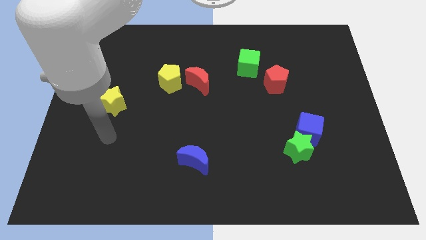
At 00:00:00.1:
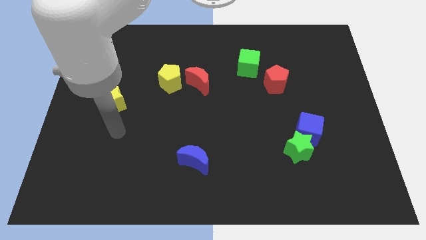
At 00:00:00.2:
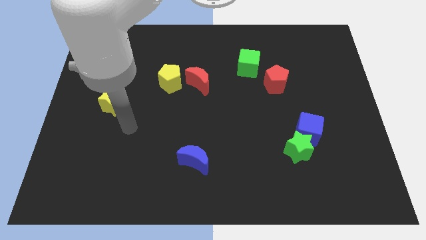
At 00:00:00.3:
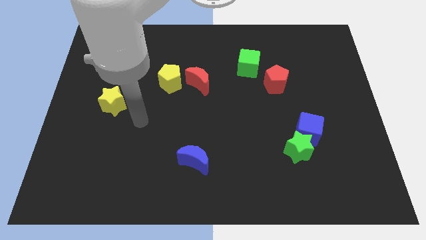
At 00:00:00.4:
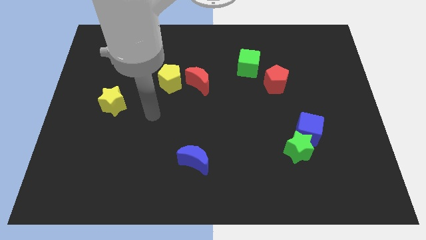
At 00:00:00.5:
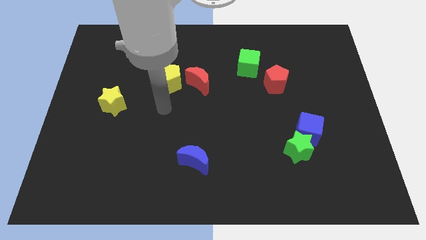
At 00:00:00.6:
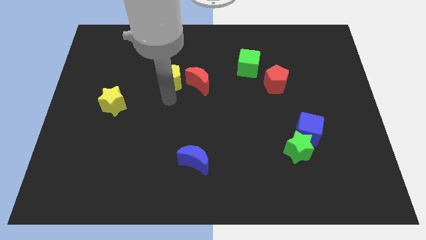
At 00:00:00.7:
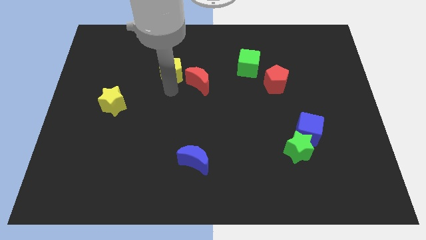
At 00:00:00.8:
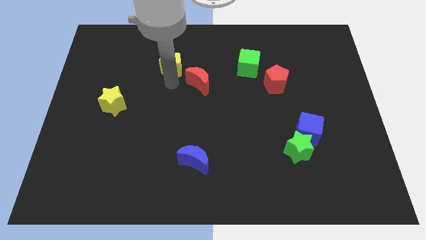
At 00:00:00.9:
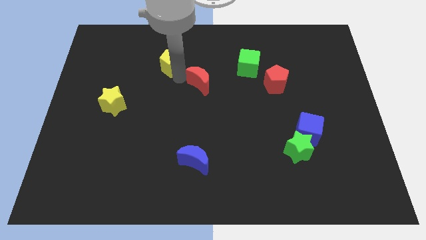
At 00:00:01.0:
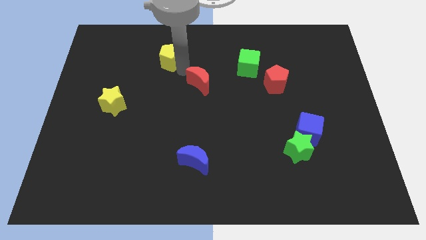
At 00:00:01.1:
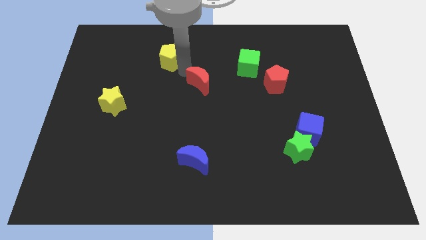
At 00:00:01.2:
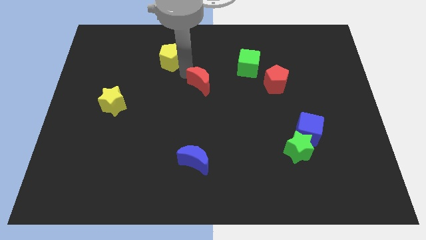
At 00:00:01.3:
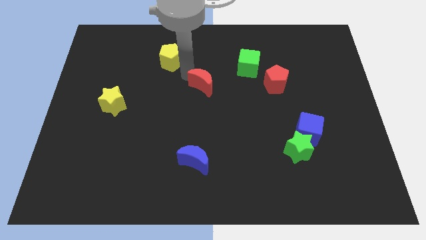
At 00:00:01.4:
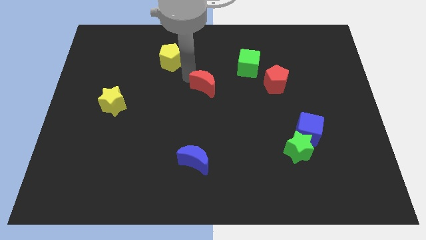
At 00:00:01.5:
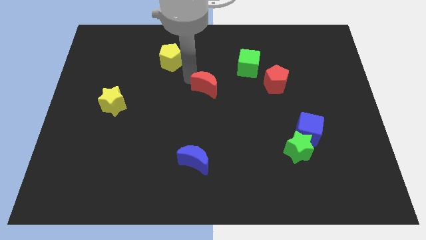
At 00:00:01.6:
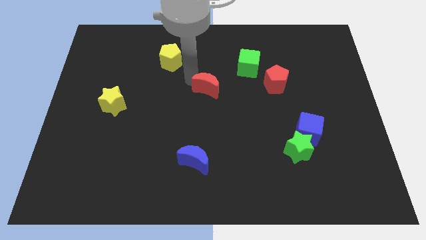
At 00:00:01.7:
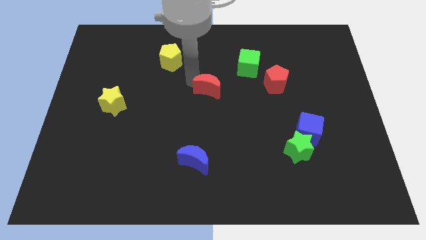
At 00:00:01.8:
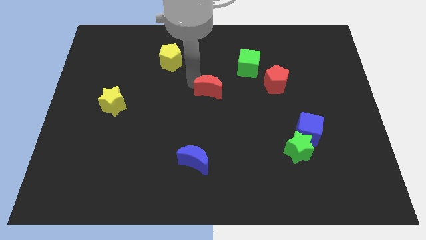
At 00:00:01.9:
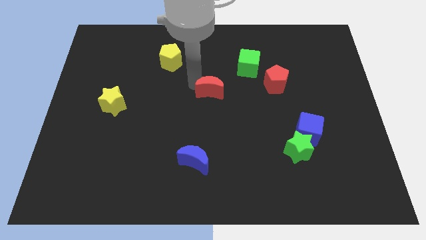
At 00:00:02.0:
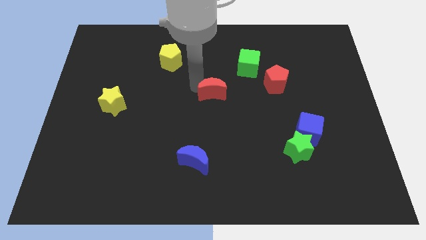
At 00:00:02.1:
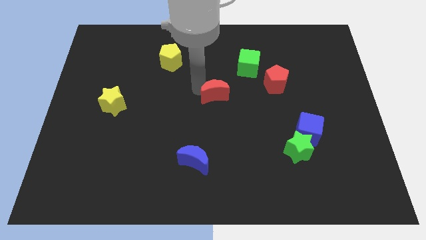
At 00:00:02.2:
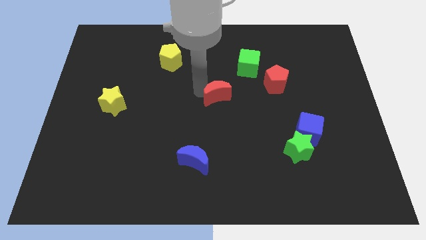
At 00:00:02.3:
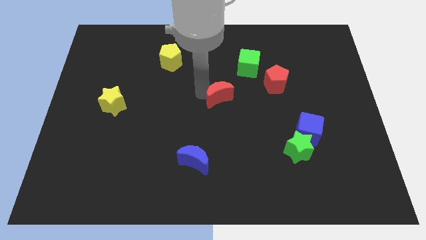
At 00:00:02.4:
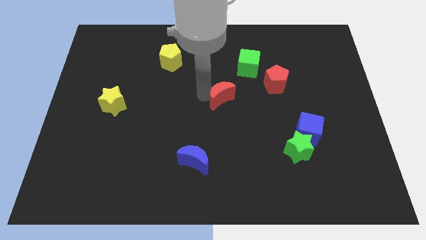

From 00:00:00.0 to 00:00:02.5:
push the red moon downwards and right a little bit

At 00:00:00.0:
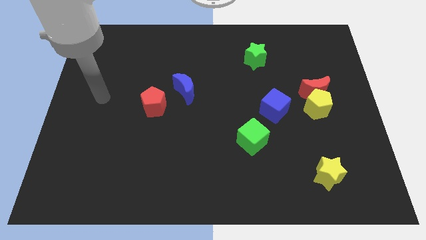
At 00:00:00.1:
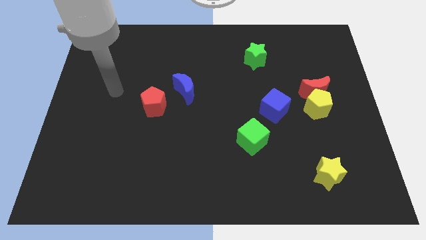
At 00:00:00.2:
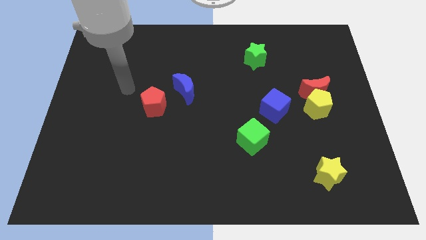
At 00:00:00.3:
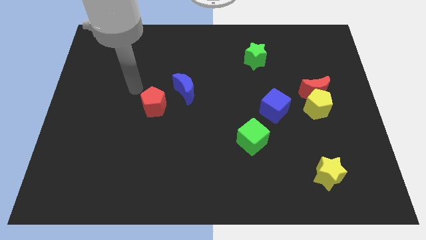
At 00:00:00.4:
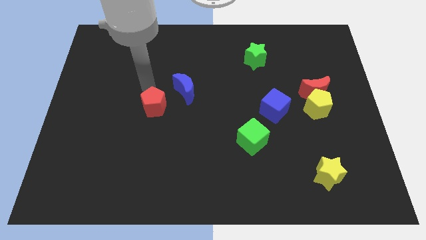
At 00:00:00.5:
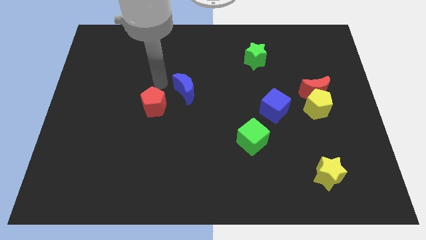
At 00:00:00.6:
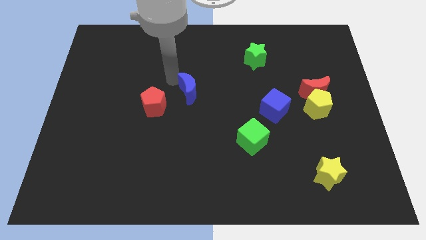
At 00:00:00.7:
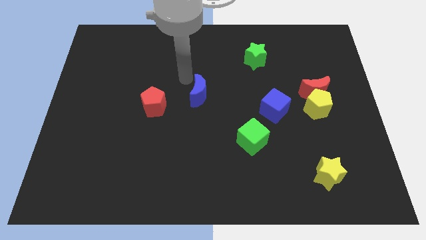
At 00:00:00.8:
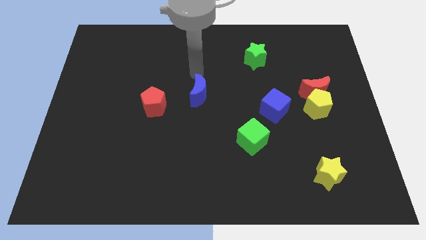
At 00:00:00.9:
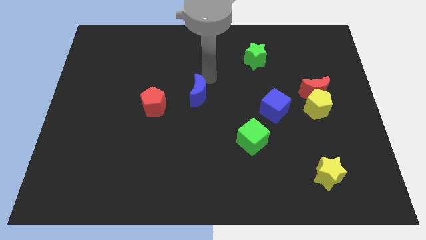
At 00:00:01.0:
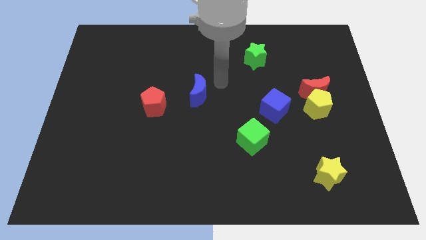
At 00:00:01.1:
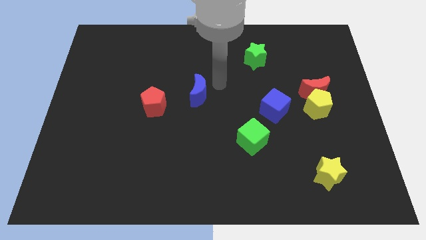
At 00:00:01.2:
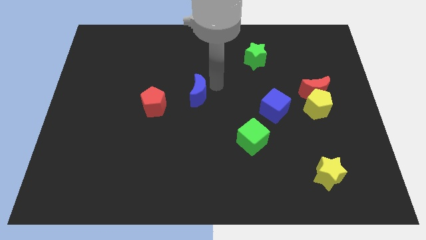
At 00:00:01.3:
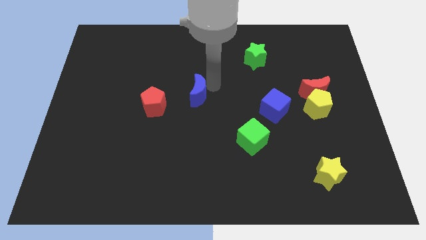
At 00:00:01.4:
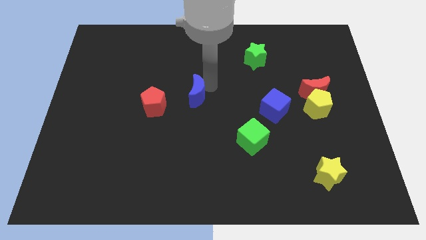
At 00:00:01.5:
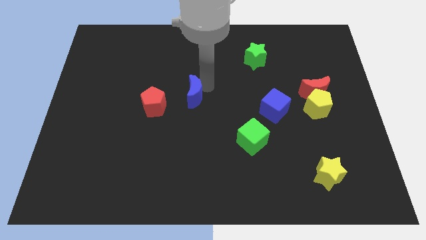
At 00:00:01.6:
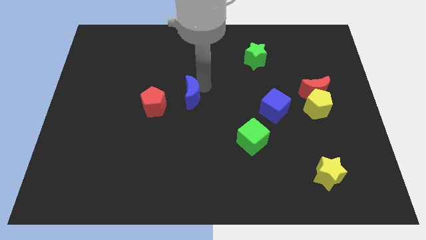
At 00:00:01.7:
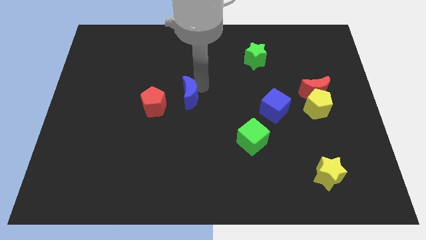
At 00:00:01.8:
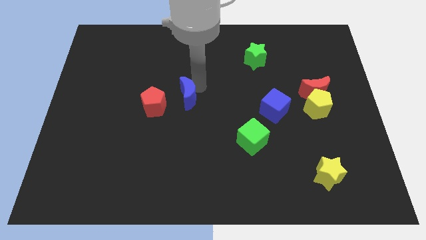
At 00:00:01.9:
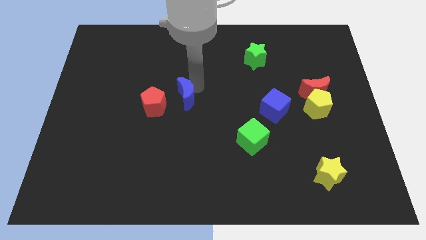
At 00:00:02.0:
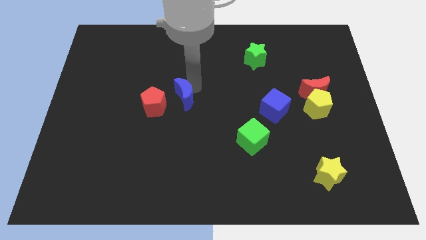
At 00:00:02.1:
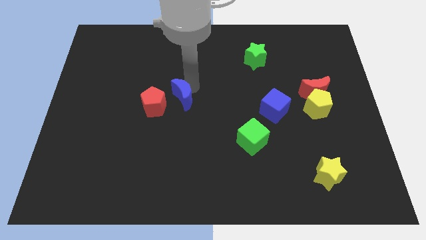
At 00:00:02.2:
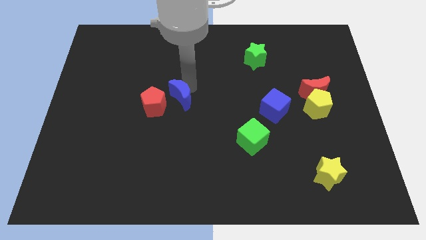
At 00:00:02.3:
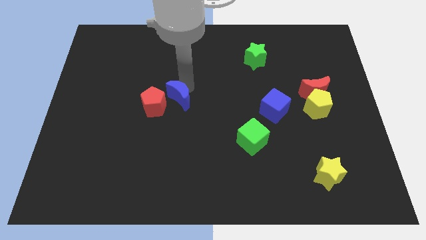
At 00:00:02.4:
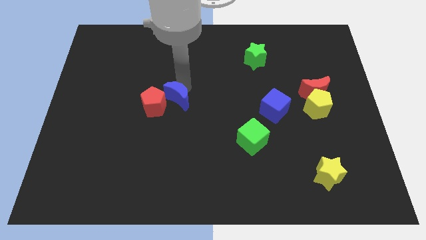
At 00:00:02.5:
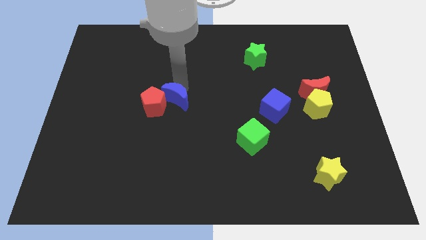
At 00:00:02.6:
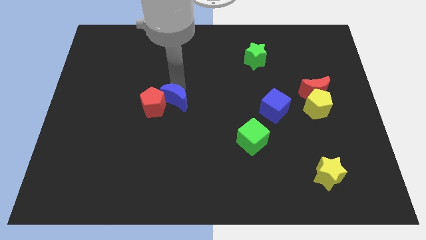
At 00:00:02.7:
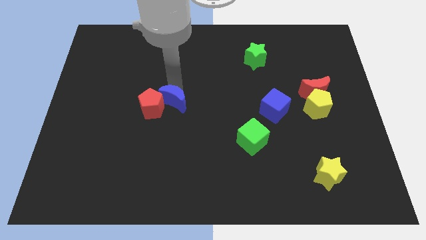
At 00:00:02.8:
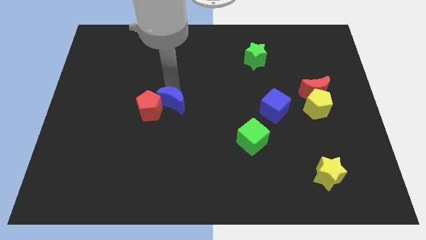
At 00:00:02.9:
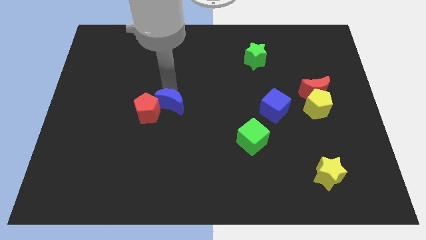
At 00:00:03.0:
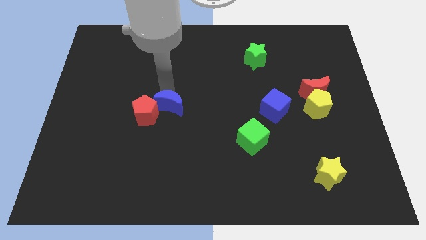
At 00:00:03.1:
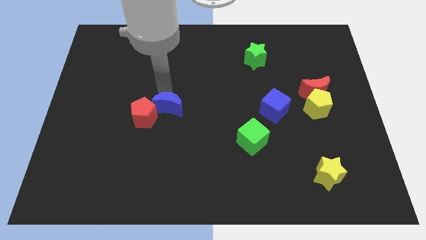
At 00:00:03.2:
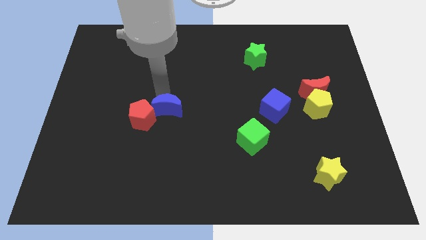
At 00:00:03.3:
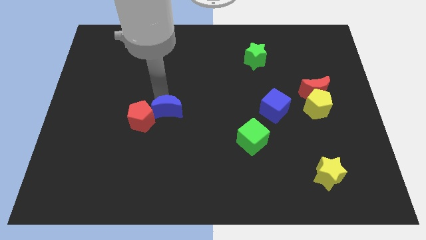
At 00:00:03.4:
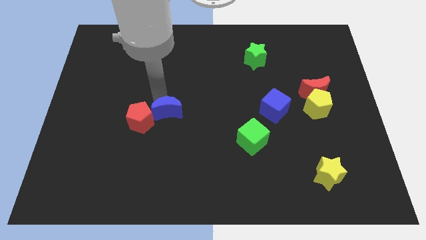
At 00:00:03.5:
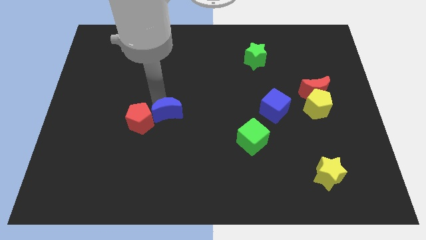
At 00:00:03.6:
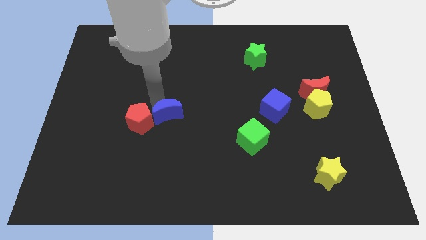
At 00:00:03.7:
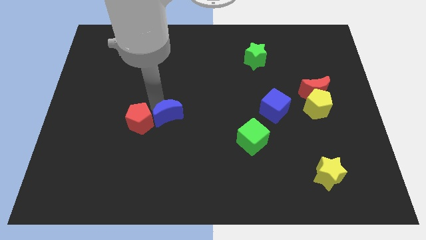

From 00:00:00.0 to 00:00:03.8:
slide the blue moon somewhat downwards

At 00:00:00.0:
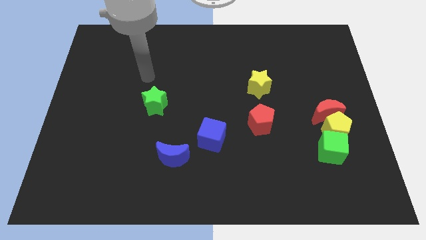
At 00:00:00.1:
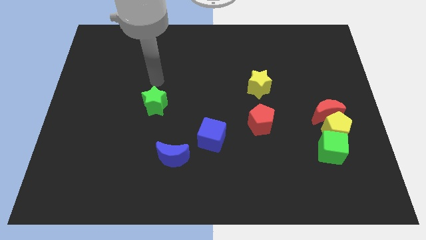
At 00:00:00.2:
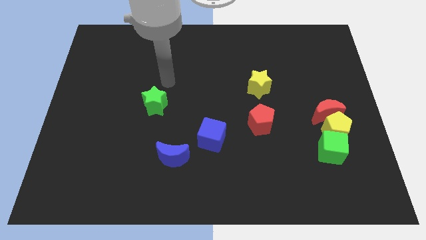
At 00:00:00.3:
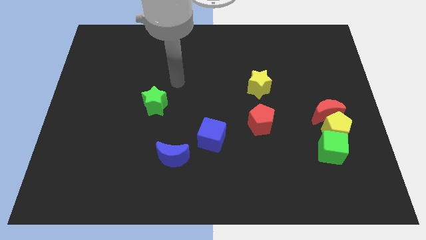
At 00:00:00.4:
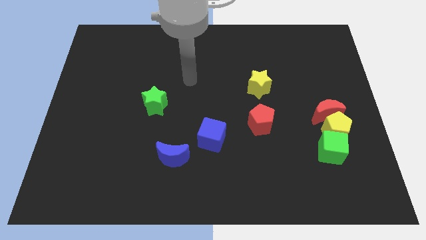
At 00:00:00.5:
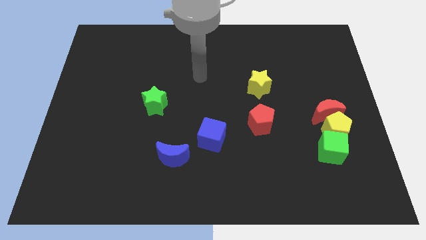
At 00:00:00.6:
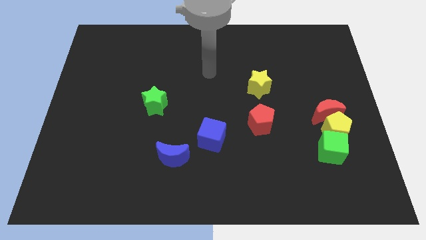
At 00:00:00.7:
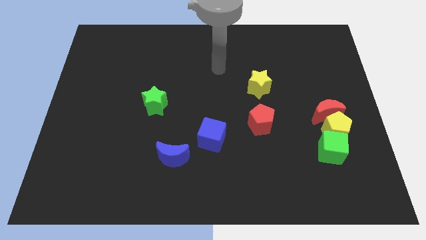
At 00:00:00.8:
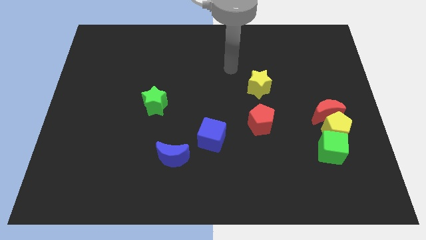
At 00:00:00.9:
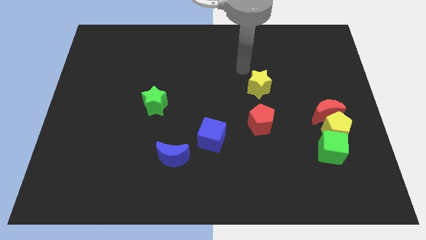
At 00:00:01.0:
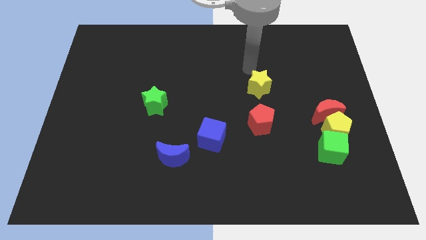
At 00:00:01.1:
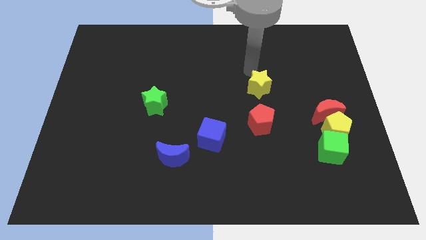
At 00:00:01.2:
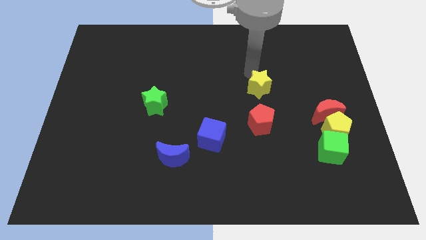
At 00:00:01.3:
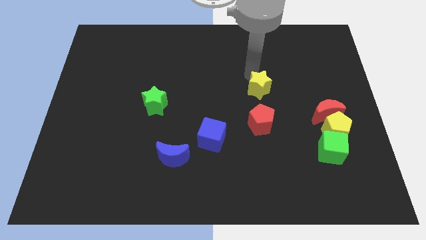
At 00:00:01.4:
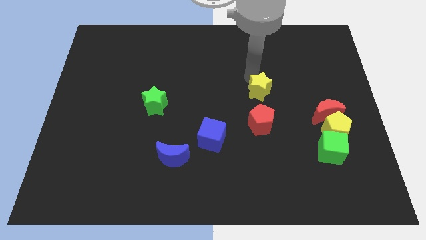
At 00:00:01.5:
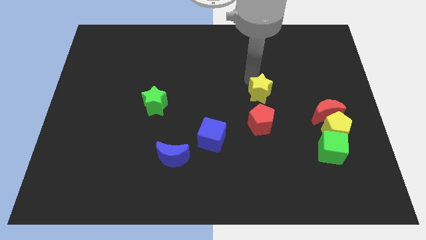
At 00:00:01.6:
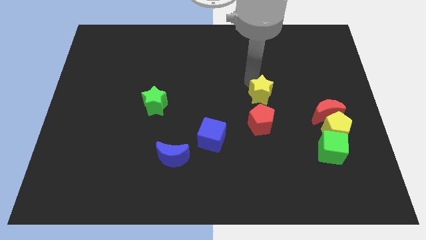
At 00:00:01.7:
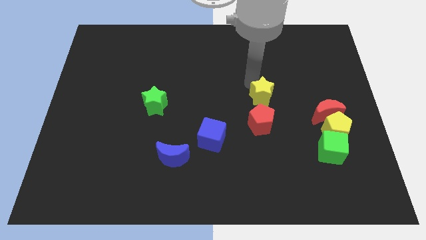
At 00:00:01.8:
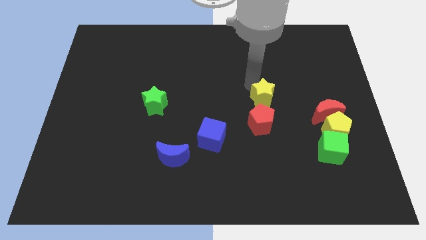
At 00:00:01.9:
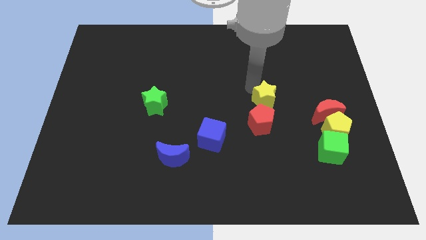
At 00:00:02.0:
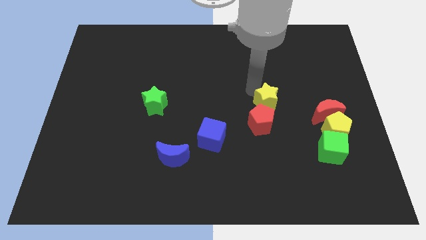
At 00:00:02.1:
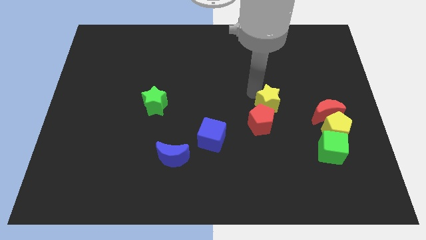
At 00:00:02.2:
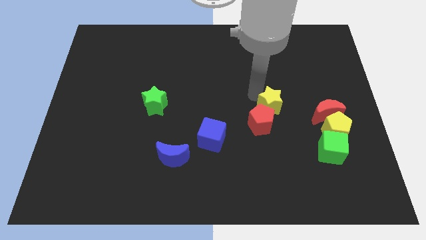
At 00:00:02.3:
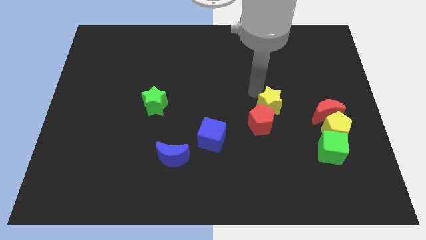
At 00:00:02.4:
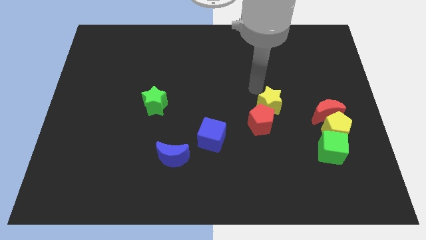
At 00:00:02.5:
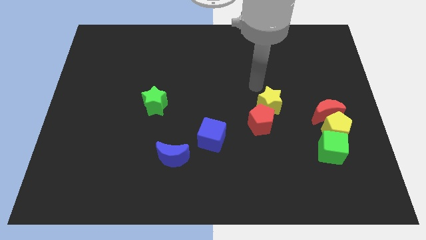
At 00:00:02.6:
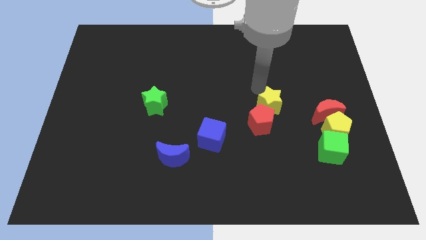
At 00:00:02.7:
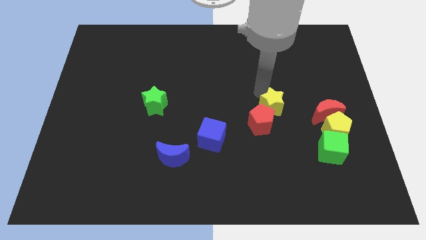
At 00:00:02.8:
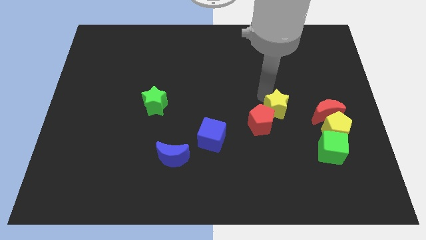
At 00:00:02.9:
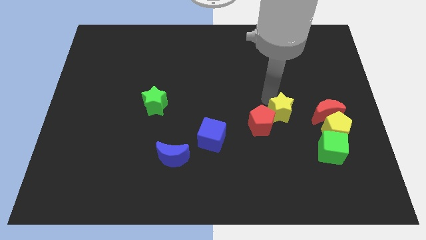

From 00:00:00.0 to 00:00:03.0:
push the yellow star a bit down
